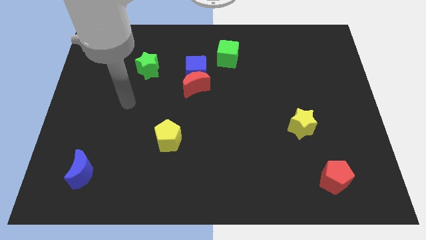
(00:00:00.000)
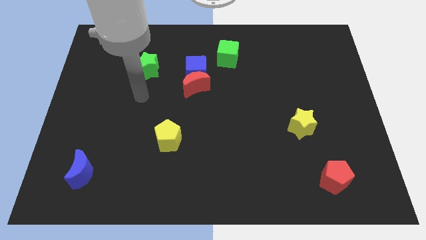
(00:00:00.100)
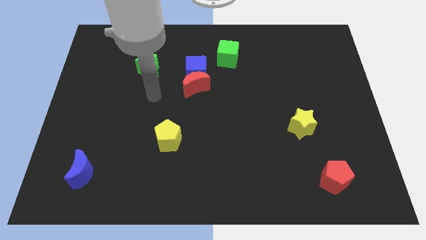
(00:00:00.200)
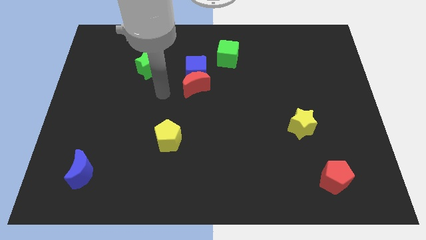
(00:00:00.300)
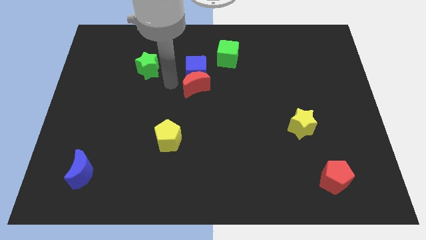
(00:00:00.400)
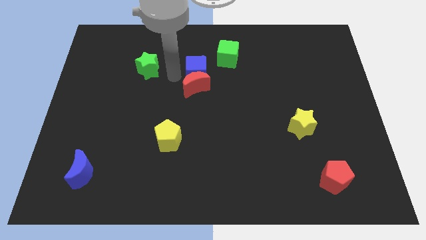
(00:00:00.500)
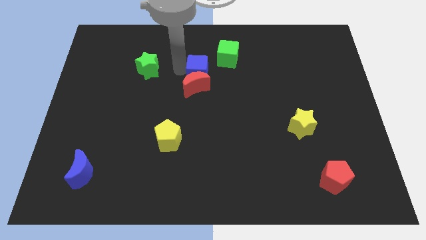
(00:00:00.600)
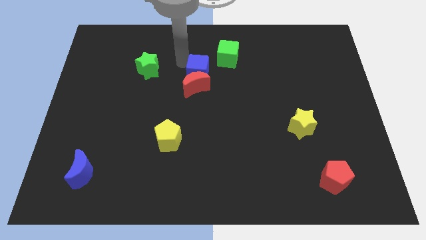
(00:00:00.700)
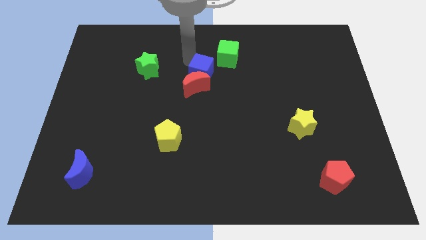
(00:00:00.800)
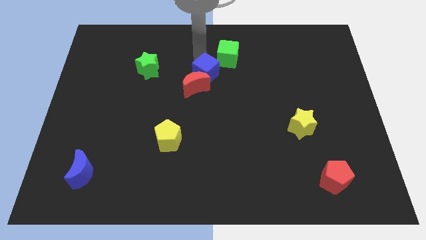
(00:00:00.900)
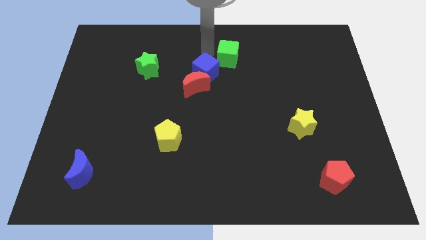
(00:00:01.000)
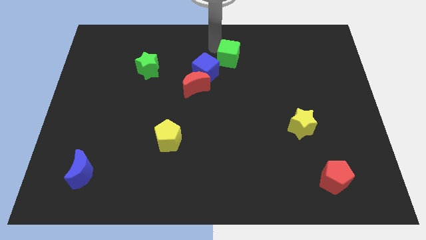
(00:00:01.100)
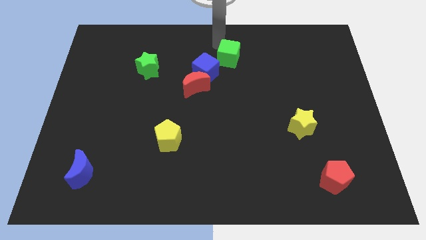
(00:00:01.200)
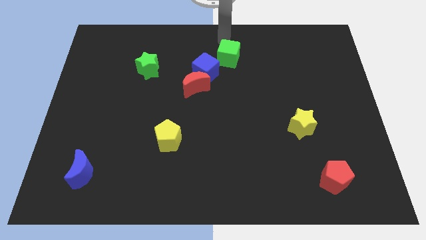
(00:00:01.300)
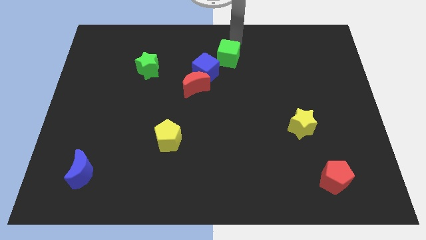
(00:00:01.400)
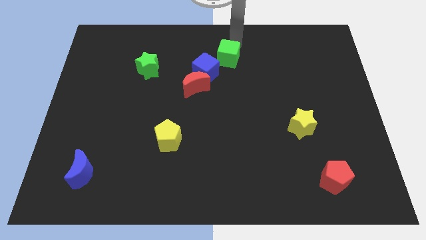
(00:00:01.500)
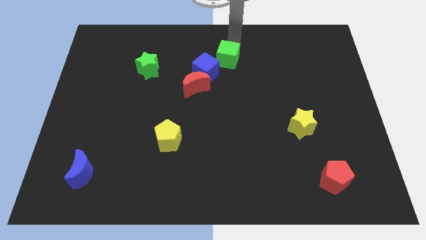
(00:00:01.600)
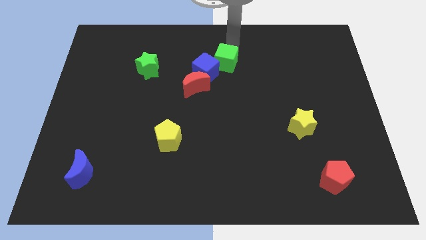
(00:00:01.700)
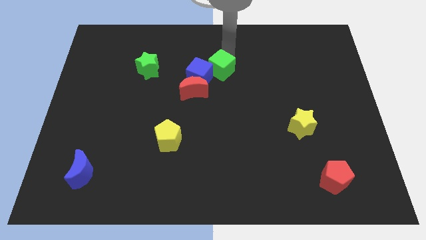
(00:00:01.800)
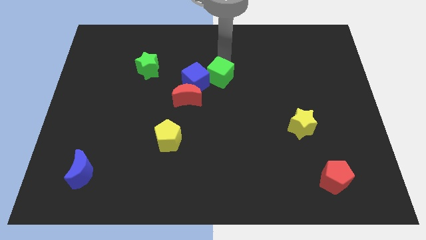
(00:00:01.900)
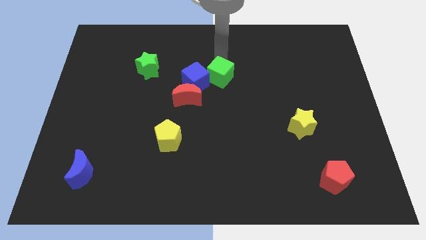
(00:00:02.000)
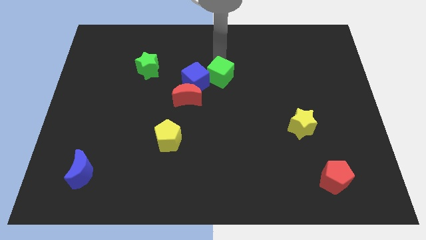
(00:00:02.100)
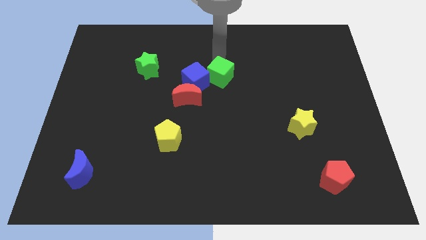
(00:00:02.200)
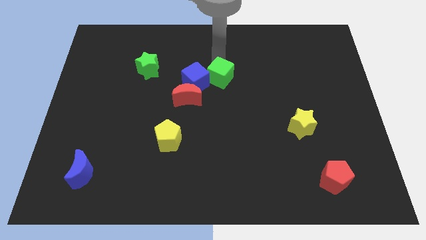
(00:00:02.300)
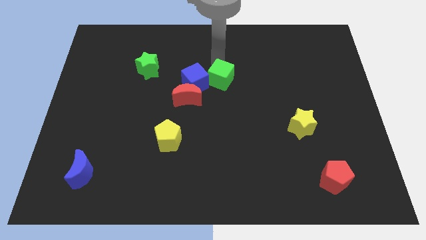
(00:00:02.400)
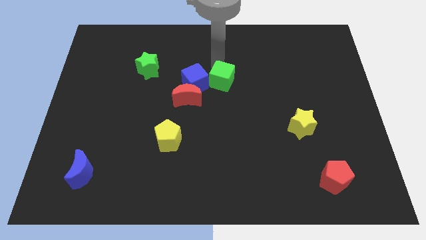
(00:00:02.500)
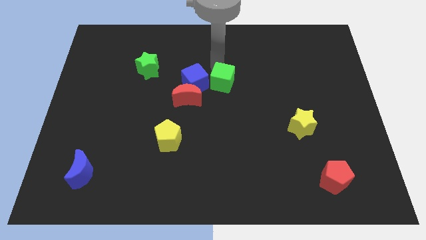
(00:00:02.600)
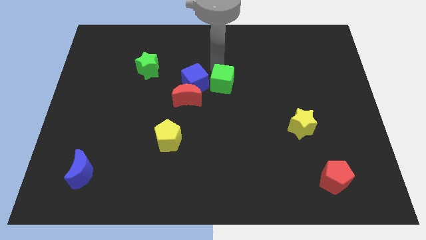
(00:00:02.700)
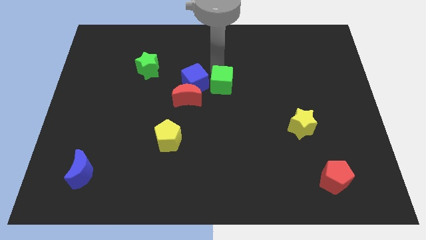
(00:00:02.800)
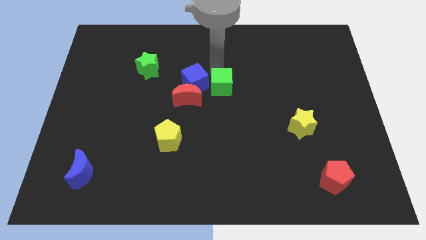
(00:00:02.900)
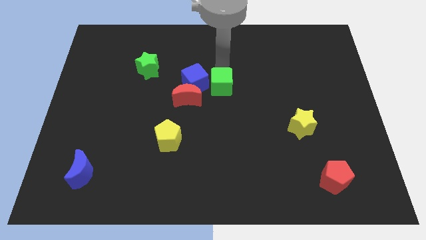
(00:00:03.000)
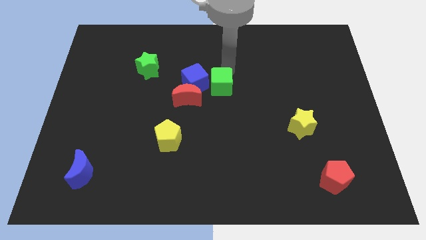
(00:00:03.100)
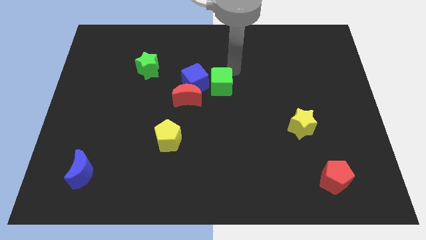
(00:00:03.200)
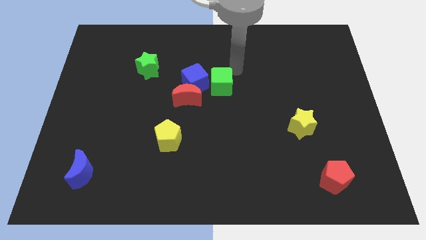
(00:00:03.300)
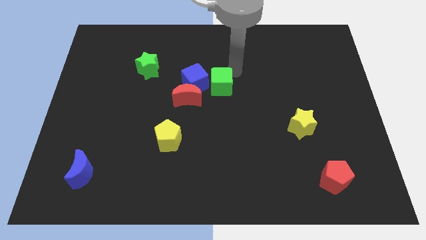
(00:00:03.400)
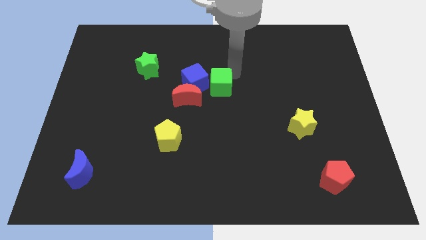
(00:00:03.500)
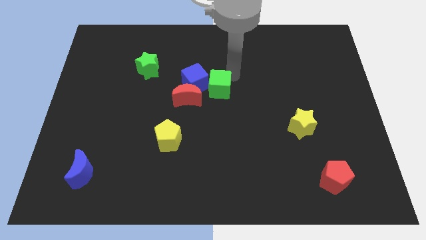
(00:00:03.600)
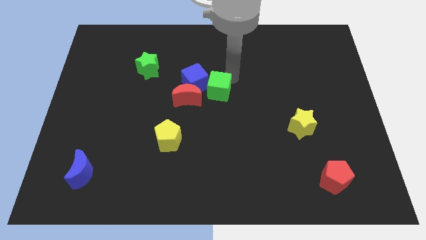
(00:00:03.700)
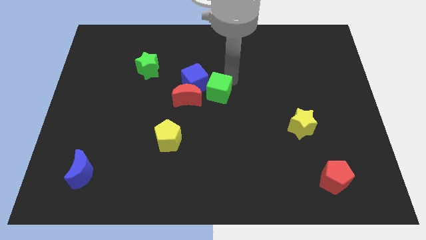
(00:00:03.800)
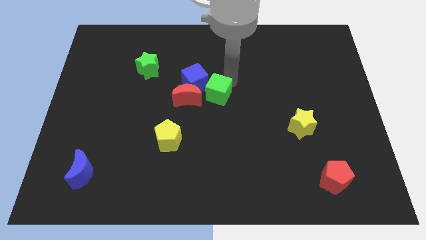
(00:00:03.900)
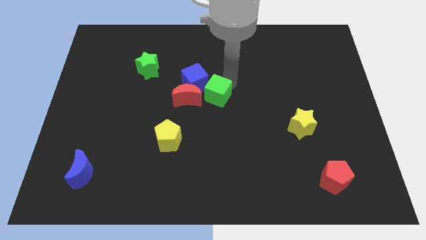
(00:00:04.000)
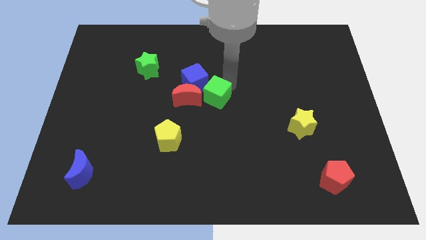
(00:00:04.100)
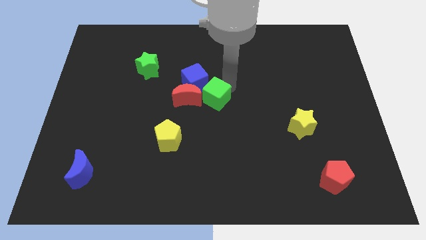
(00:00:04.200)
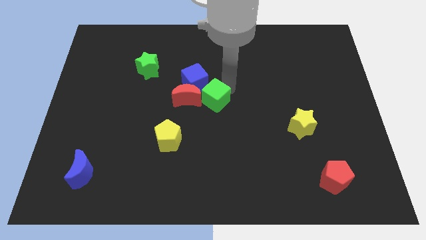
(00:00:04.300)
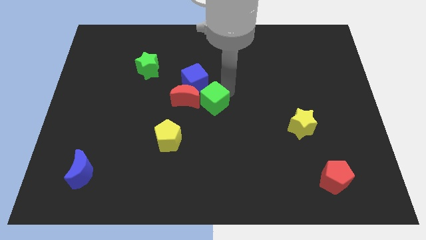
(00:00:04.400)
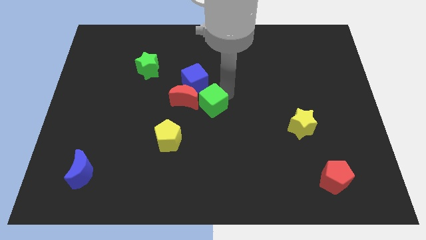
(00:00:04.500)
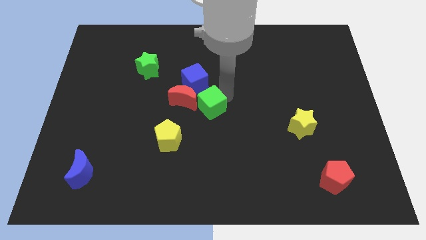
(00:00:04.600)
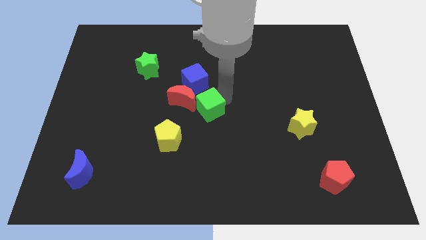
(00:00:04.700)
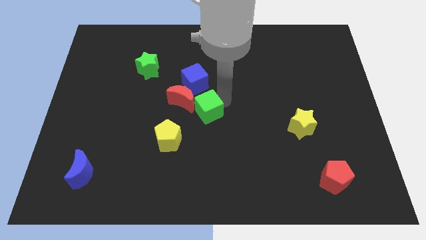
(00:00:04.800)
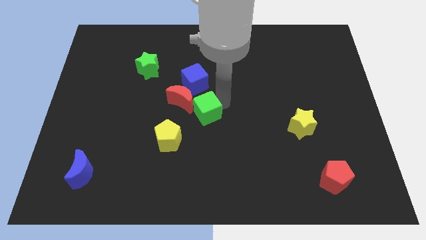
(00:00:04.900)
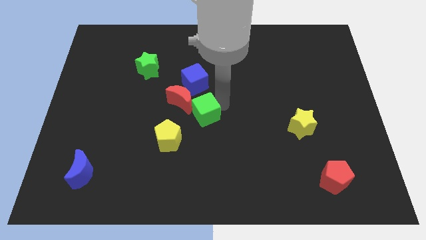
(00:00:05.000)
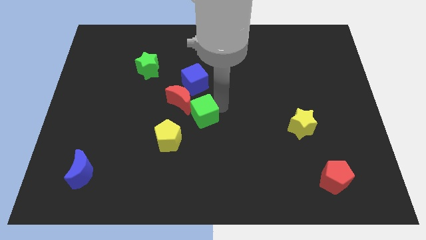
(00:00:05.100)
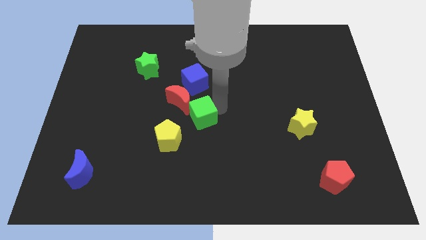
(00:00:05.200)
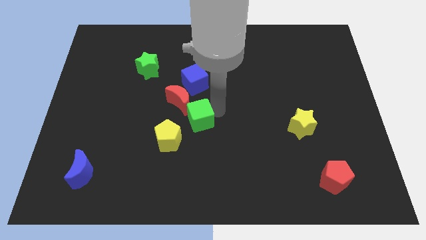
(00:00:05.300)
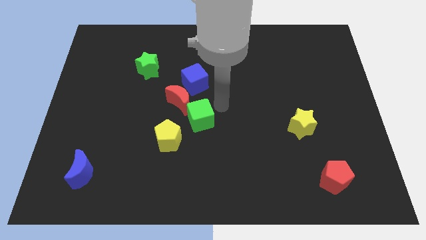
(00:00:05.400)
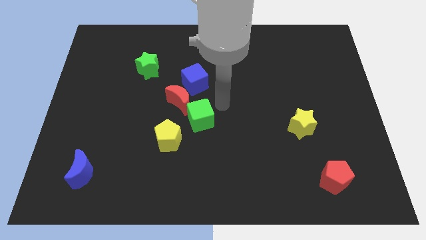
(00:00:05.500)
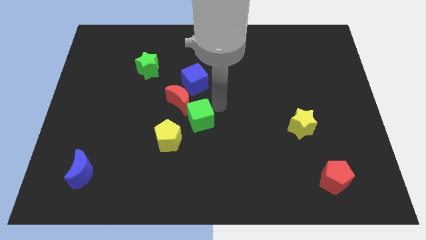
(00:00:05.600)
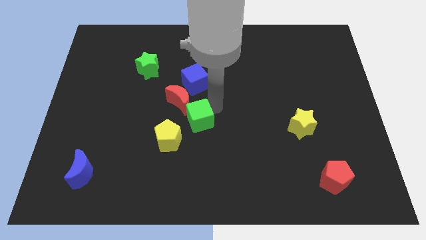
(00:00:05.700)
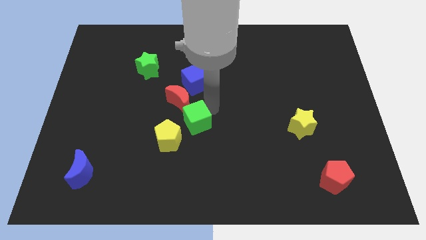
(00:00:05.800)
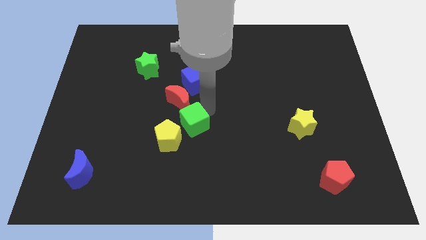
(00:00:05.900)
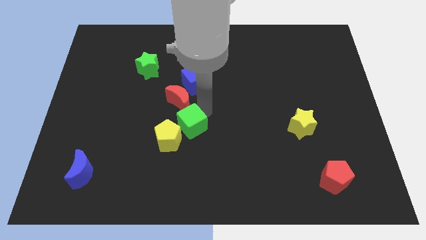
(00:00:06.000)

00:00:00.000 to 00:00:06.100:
move the green cube towards the yellow pentagon

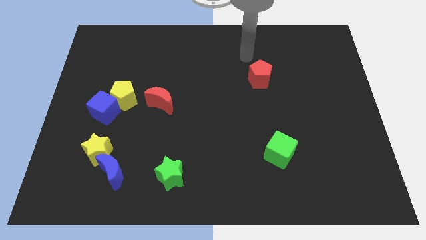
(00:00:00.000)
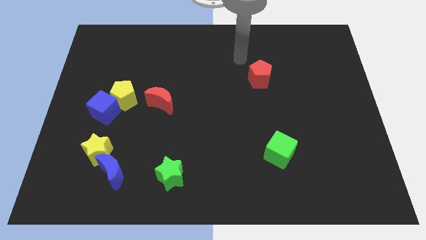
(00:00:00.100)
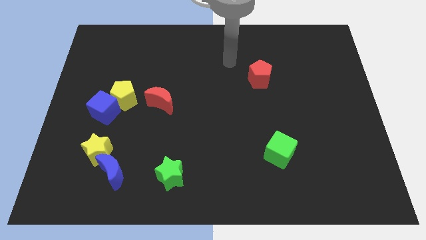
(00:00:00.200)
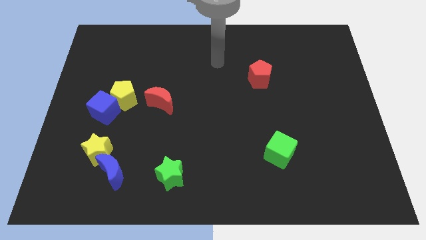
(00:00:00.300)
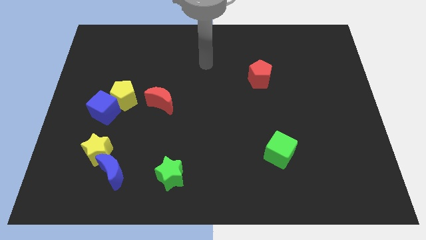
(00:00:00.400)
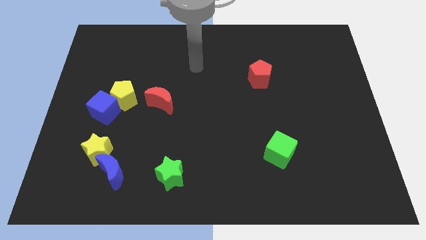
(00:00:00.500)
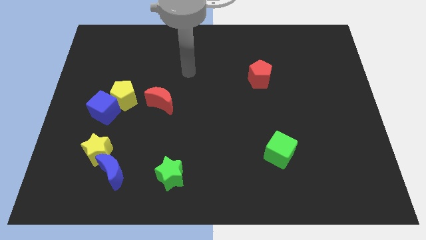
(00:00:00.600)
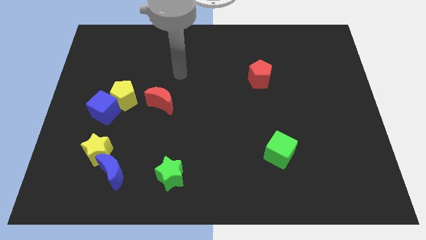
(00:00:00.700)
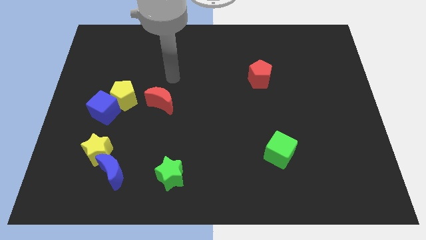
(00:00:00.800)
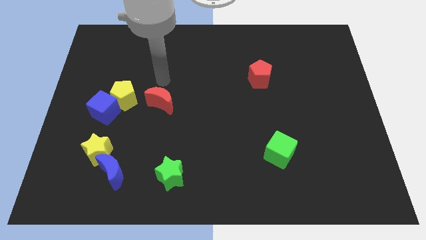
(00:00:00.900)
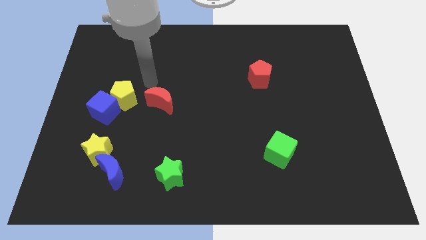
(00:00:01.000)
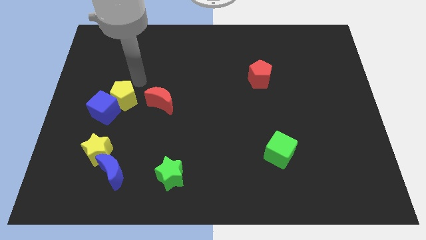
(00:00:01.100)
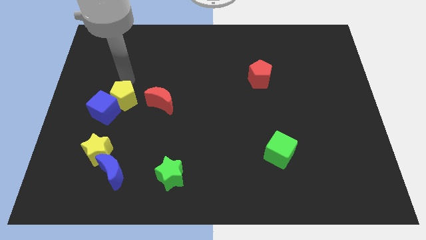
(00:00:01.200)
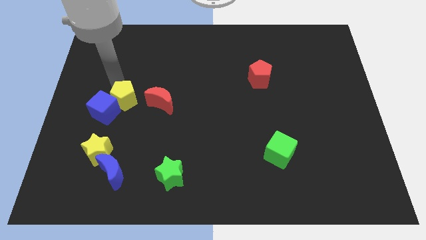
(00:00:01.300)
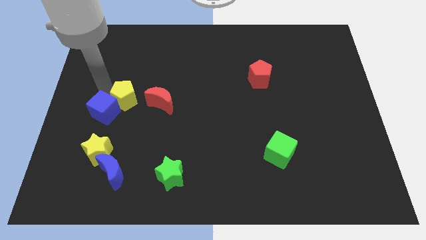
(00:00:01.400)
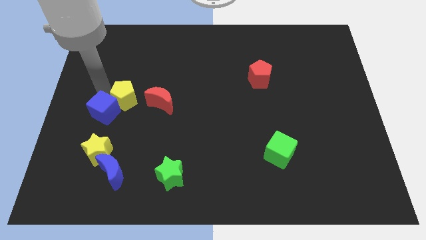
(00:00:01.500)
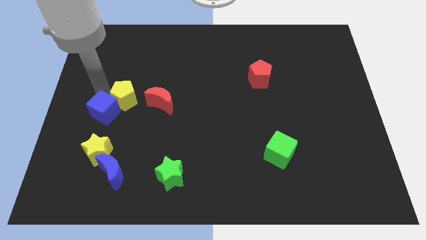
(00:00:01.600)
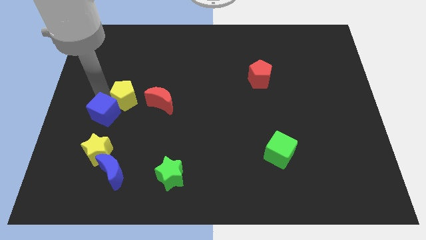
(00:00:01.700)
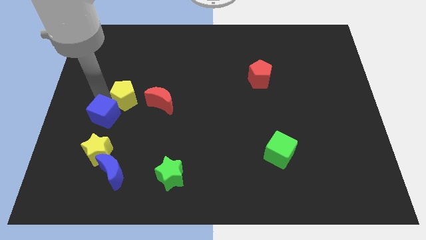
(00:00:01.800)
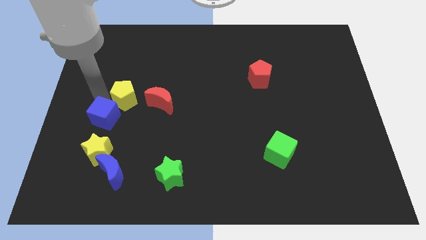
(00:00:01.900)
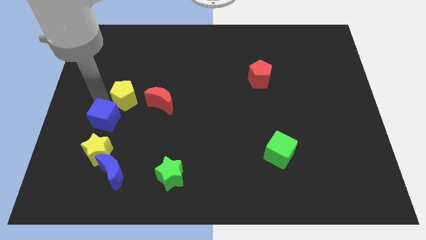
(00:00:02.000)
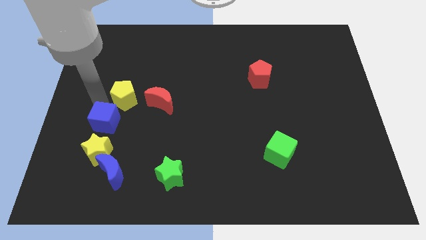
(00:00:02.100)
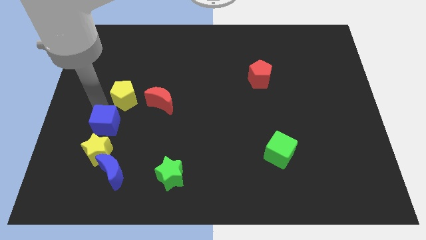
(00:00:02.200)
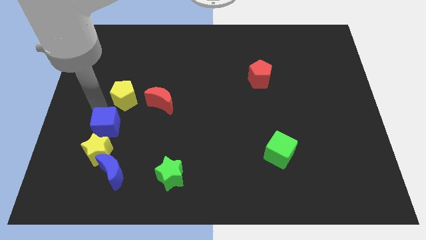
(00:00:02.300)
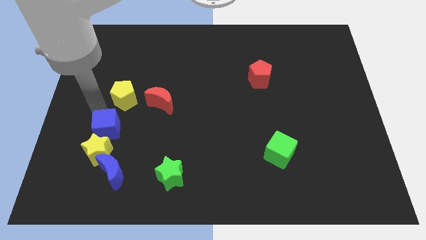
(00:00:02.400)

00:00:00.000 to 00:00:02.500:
move the blue cube towards the yellow star
